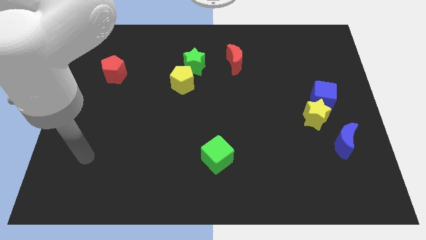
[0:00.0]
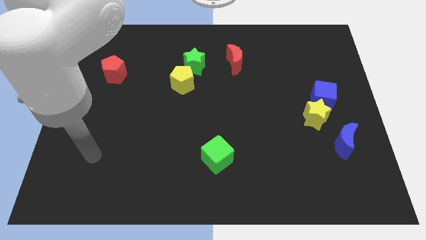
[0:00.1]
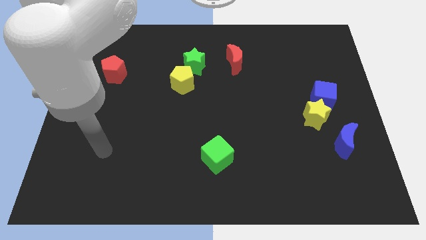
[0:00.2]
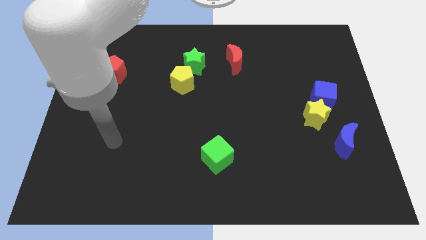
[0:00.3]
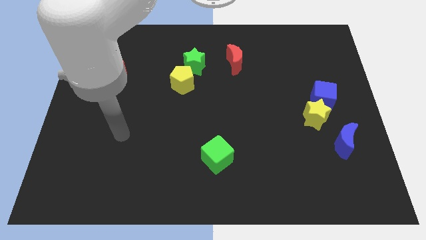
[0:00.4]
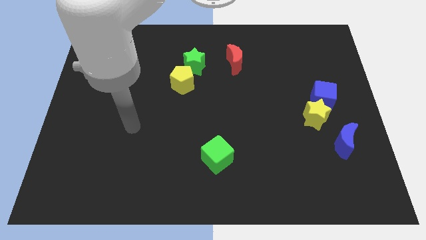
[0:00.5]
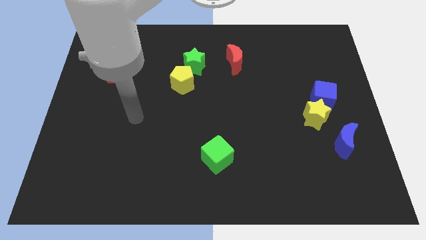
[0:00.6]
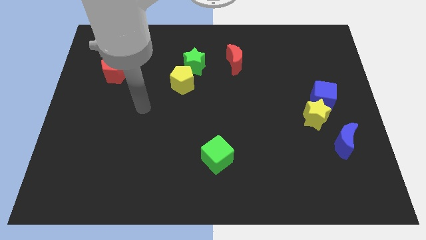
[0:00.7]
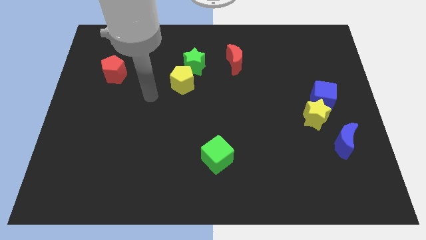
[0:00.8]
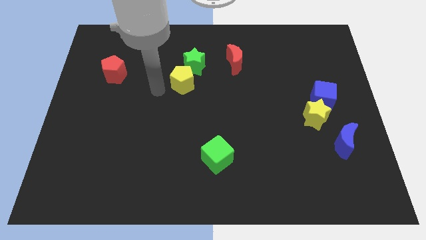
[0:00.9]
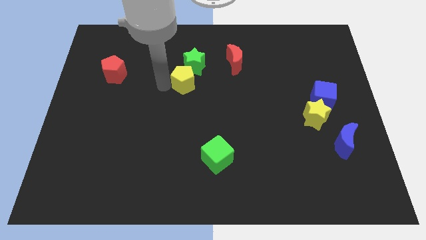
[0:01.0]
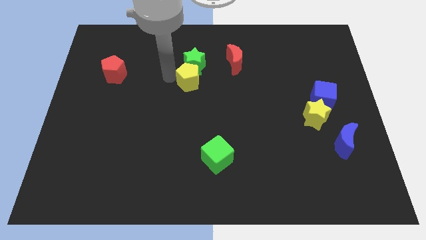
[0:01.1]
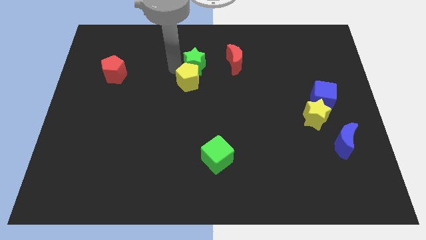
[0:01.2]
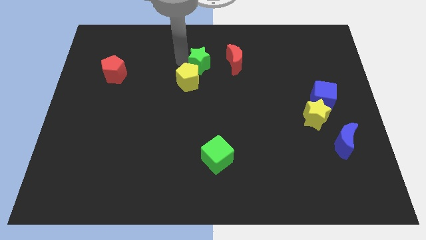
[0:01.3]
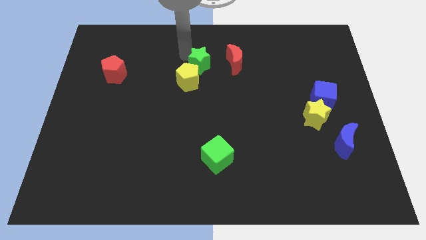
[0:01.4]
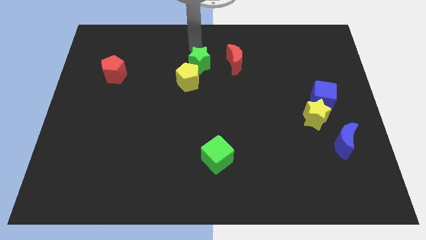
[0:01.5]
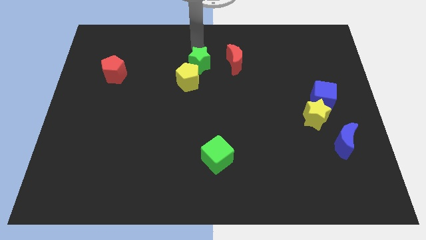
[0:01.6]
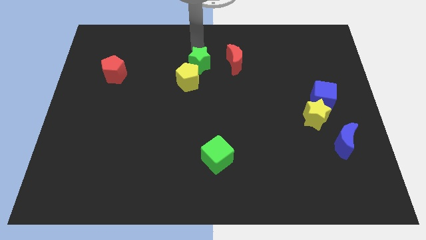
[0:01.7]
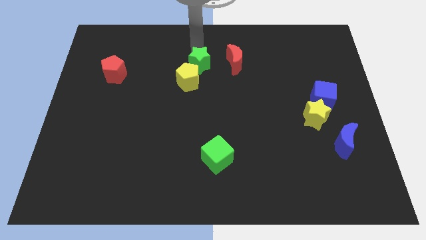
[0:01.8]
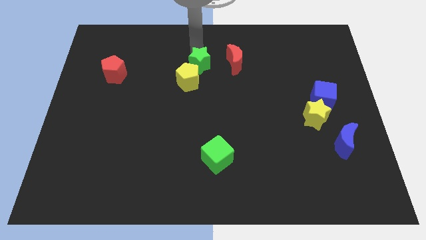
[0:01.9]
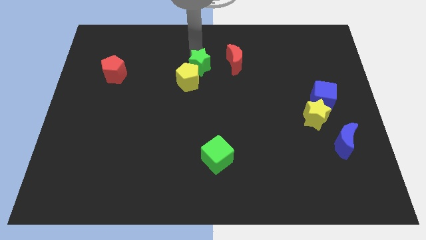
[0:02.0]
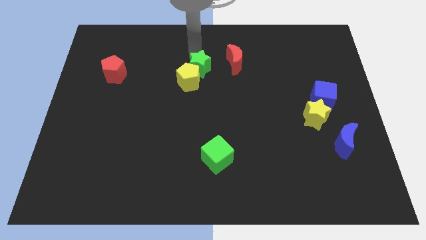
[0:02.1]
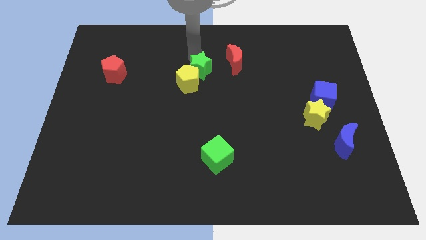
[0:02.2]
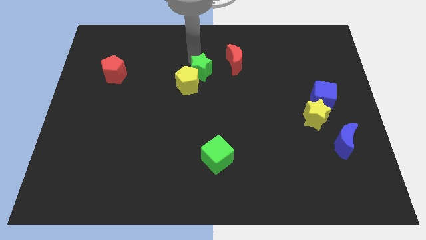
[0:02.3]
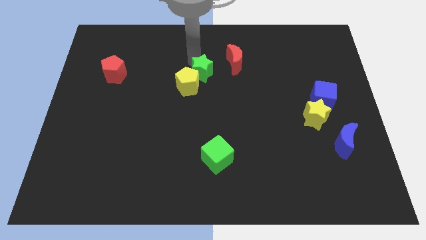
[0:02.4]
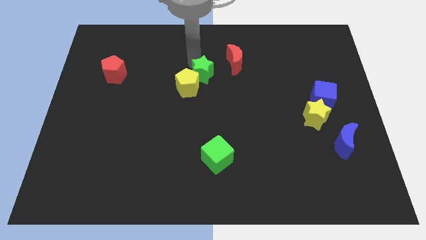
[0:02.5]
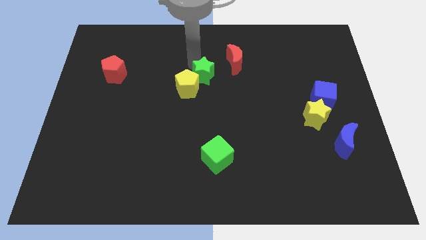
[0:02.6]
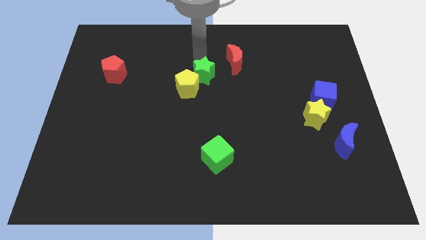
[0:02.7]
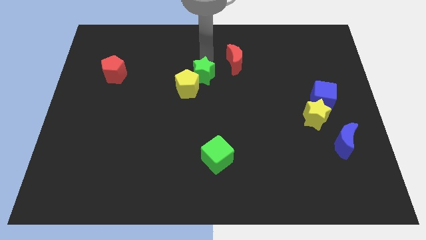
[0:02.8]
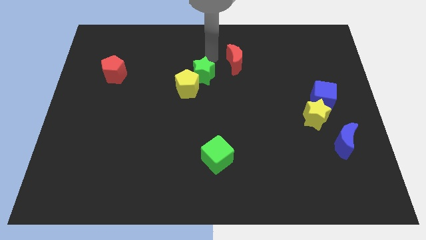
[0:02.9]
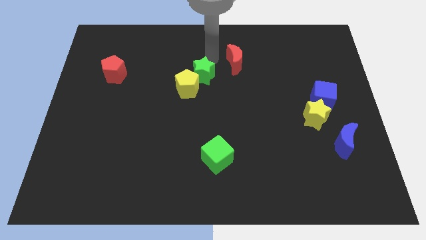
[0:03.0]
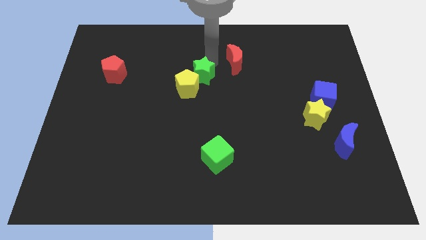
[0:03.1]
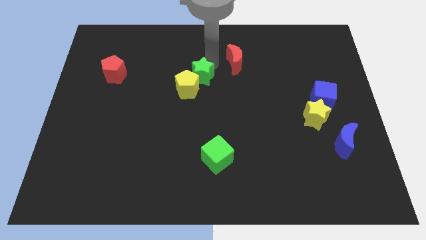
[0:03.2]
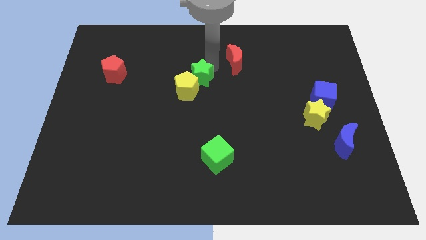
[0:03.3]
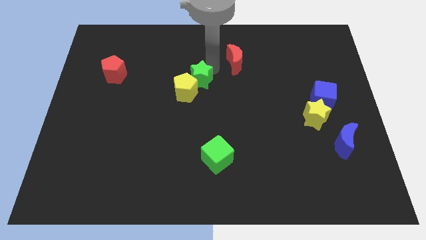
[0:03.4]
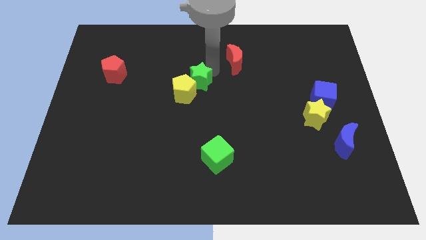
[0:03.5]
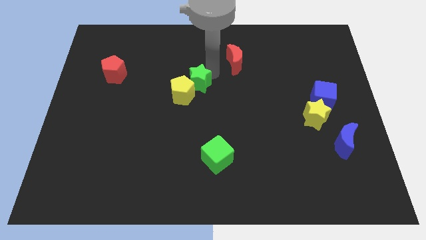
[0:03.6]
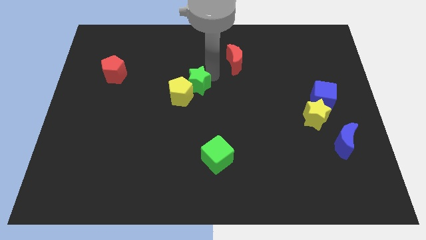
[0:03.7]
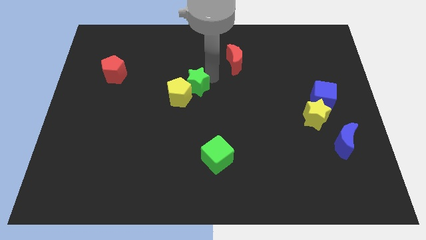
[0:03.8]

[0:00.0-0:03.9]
slightly slide the green star downwards

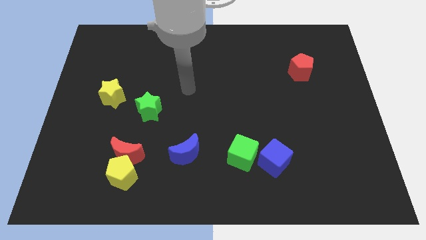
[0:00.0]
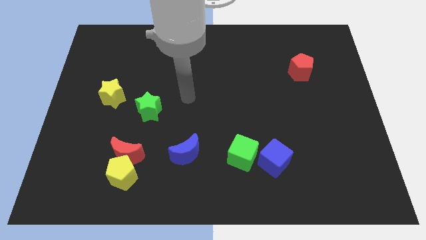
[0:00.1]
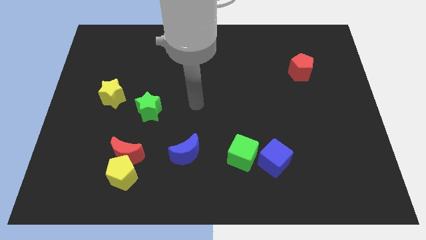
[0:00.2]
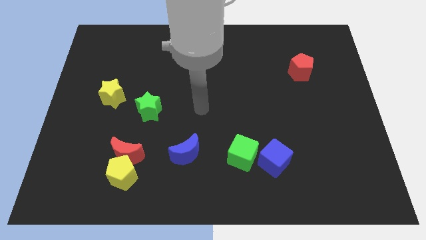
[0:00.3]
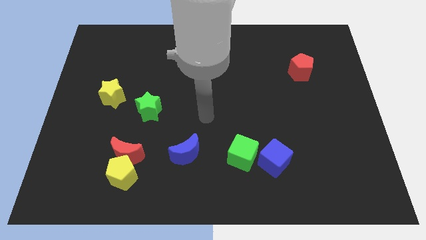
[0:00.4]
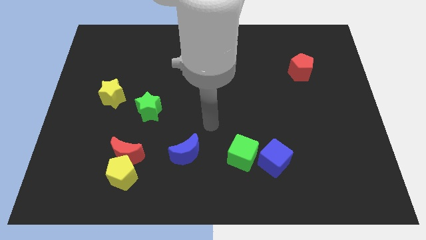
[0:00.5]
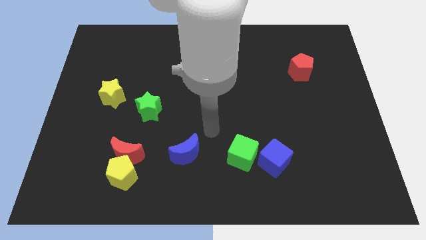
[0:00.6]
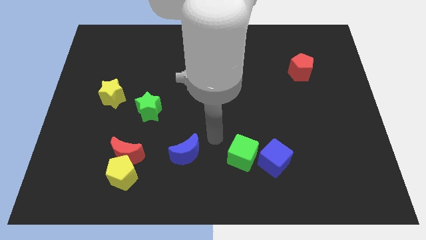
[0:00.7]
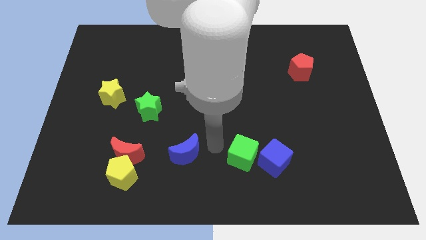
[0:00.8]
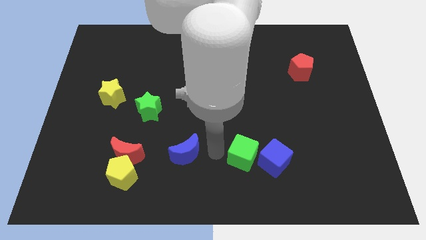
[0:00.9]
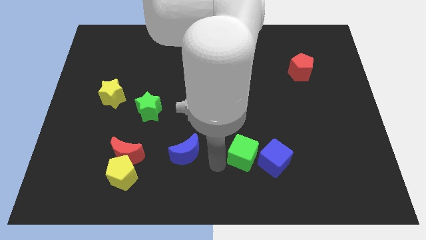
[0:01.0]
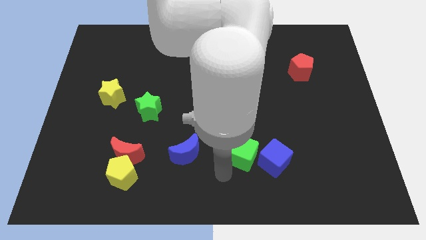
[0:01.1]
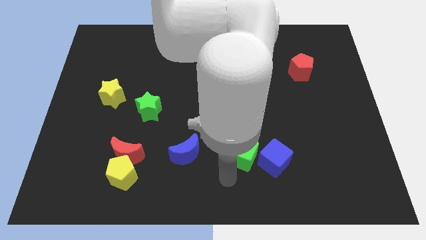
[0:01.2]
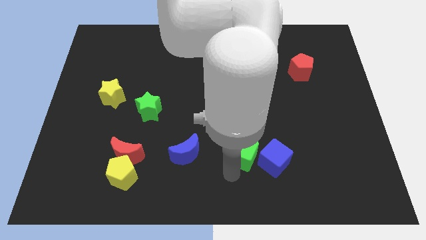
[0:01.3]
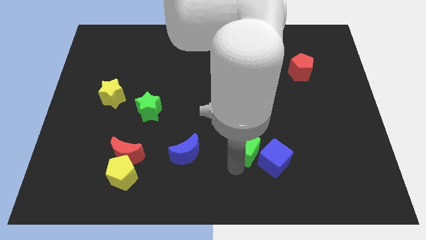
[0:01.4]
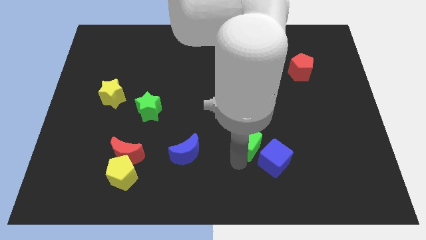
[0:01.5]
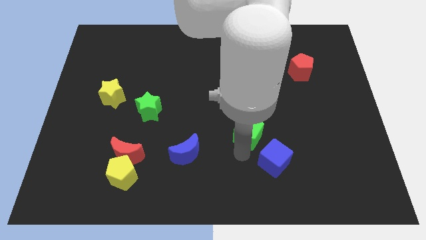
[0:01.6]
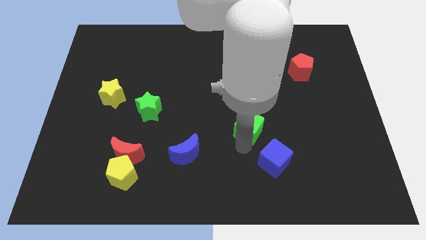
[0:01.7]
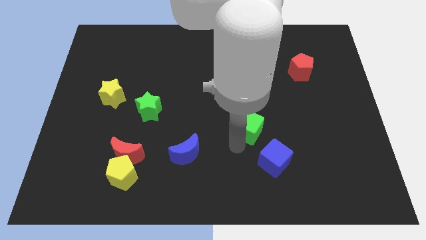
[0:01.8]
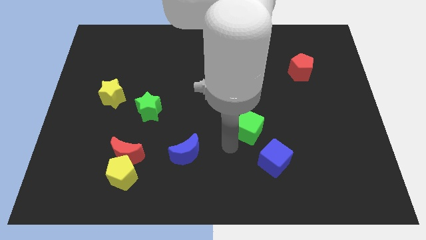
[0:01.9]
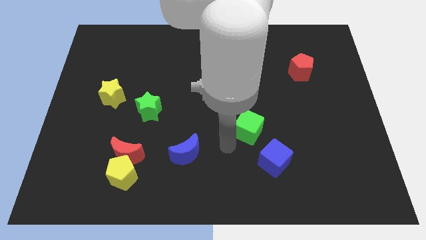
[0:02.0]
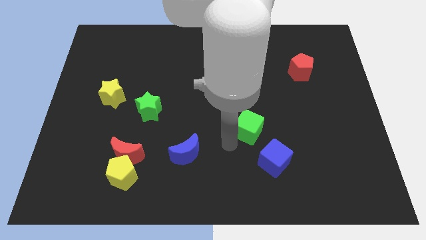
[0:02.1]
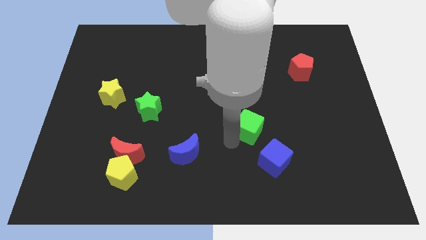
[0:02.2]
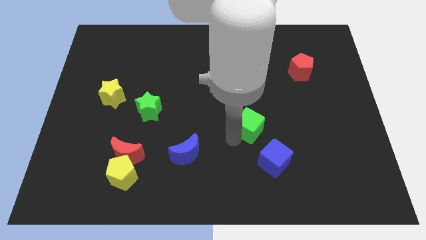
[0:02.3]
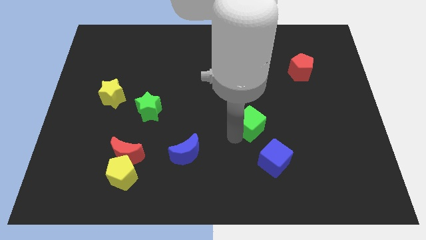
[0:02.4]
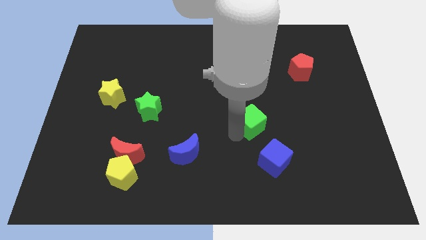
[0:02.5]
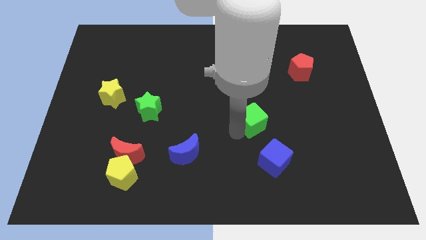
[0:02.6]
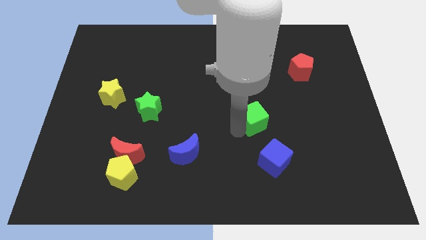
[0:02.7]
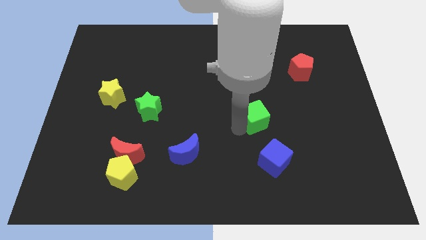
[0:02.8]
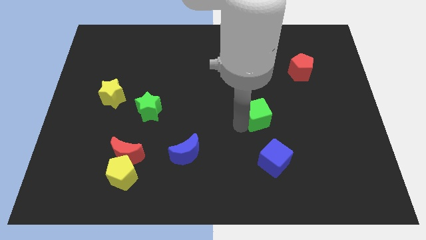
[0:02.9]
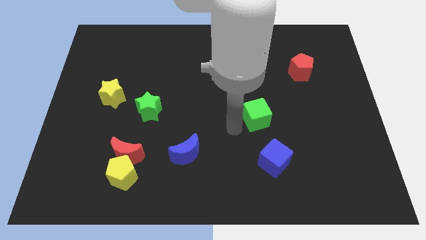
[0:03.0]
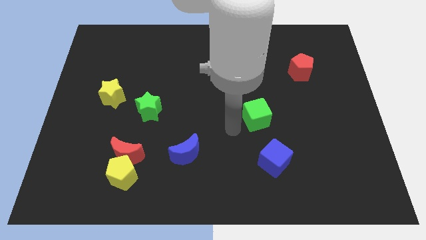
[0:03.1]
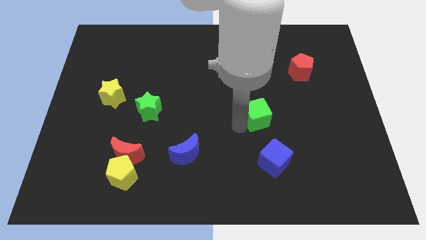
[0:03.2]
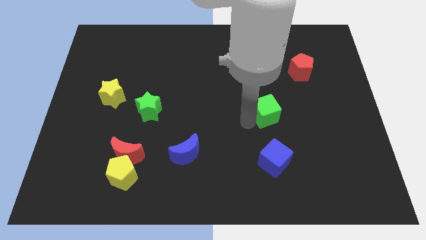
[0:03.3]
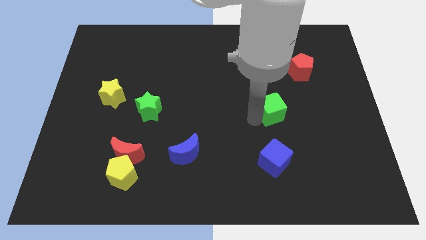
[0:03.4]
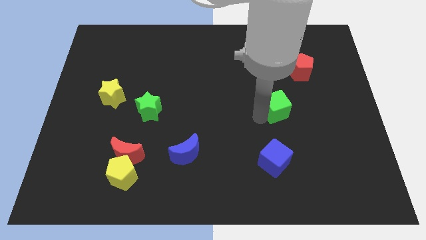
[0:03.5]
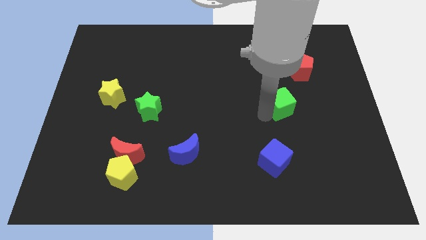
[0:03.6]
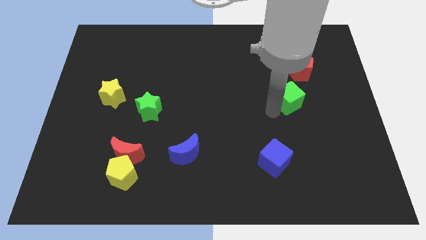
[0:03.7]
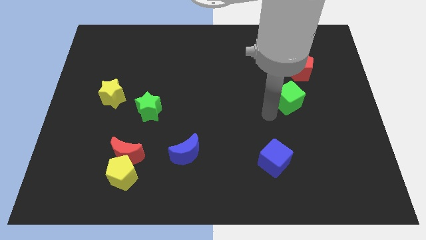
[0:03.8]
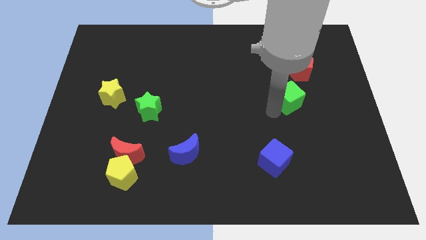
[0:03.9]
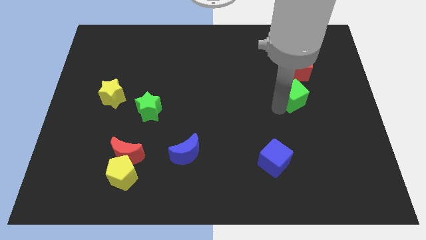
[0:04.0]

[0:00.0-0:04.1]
slide the green cube diagonally upwards and to the right

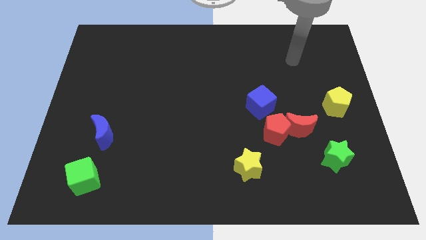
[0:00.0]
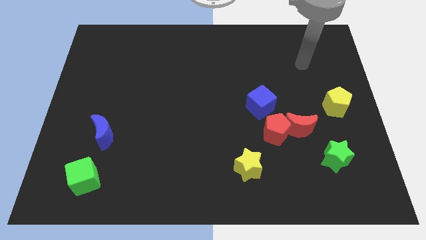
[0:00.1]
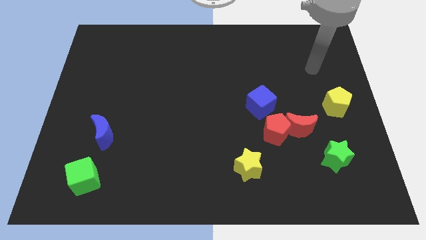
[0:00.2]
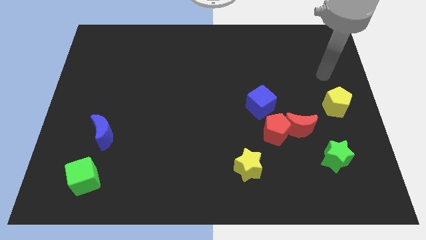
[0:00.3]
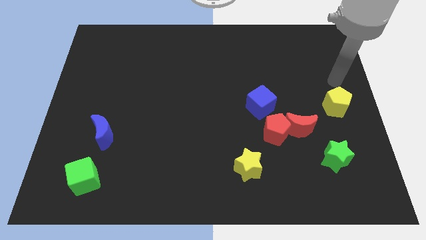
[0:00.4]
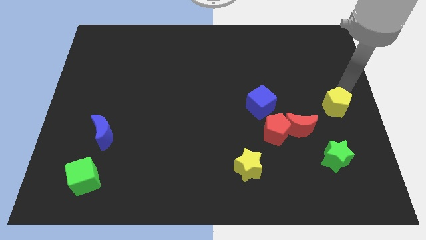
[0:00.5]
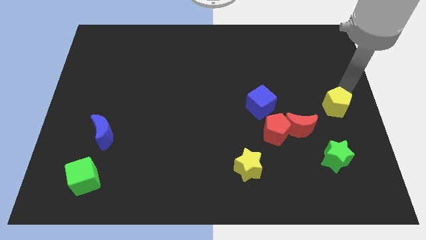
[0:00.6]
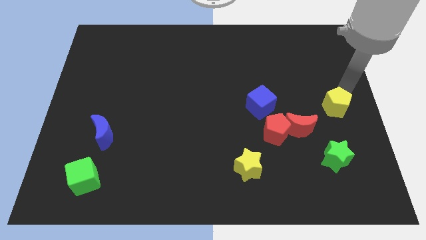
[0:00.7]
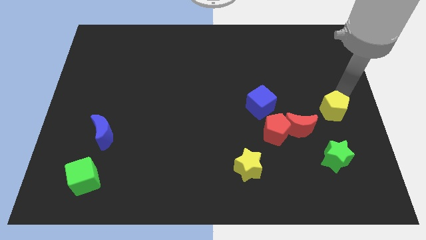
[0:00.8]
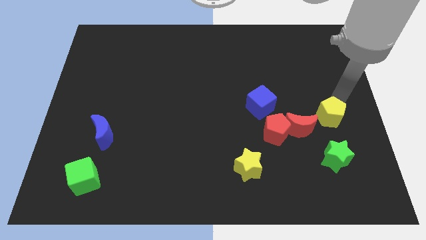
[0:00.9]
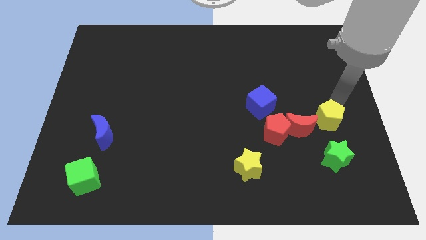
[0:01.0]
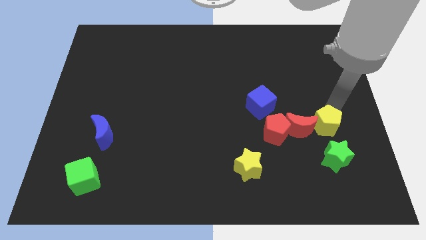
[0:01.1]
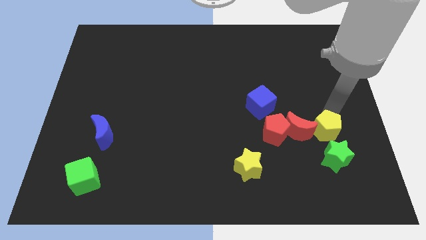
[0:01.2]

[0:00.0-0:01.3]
push the yellow pentagon diagonally downwards and left somewhat
